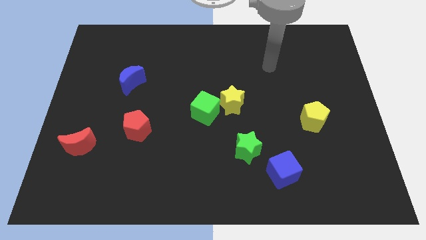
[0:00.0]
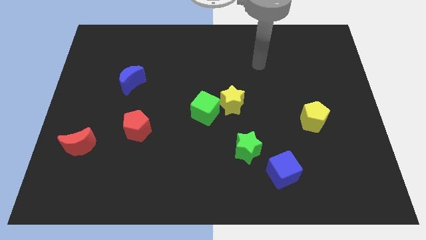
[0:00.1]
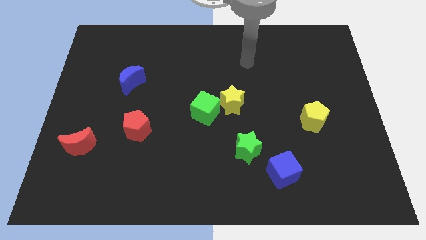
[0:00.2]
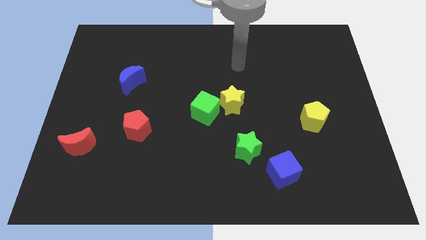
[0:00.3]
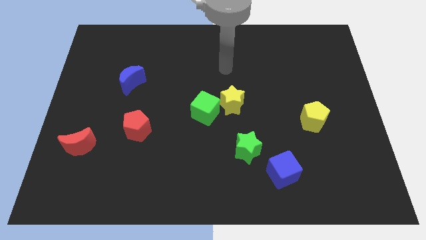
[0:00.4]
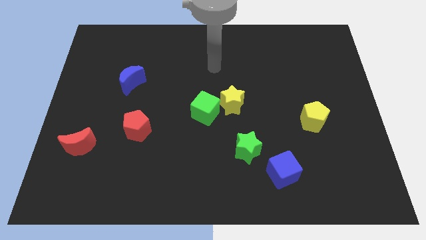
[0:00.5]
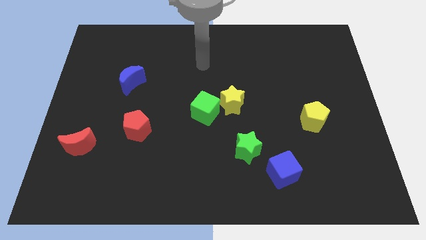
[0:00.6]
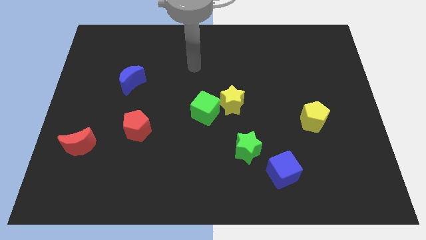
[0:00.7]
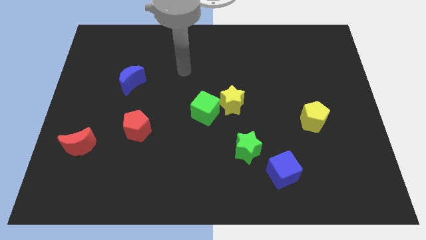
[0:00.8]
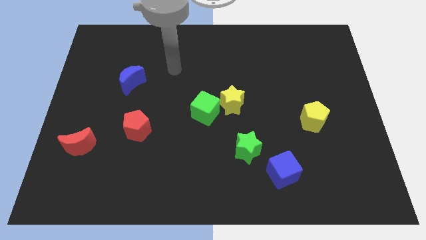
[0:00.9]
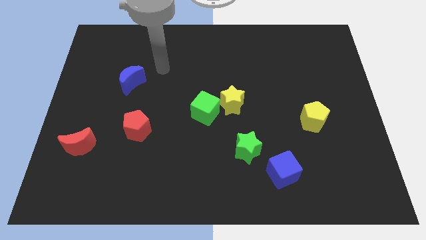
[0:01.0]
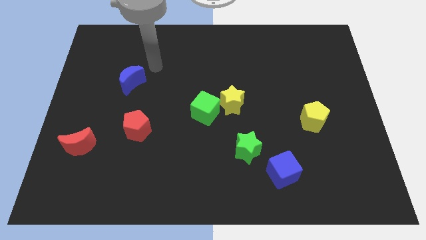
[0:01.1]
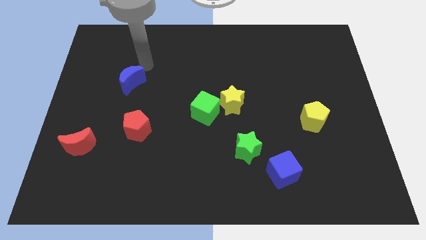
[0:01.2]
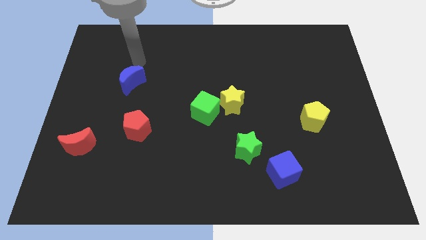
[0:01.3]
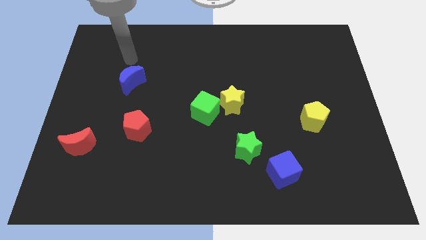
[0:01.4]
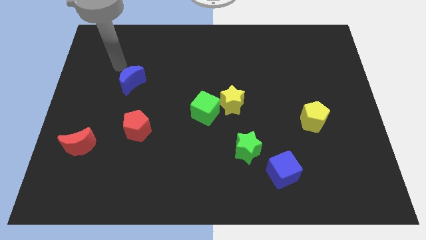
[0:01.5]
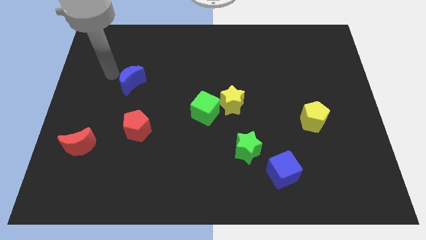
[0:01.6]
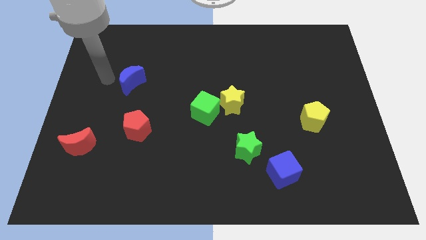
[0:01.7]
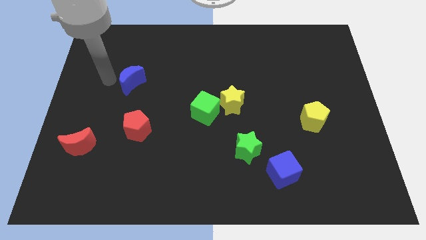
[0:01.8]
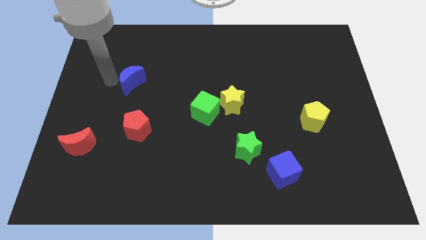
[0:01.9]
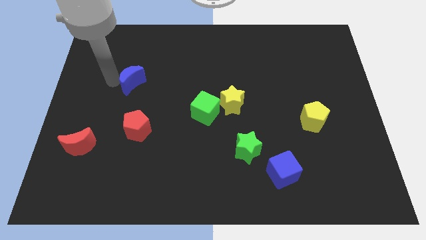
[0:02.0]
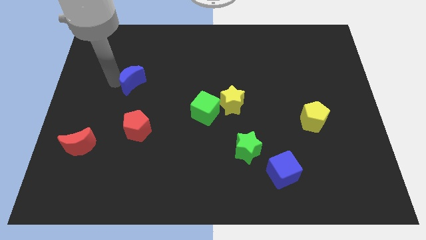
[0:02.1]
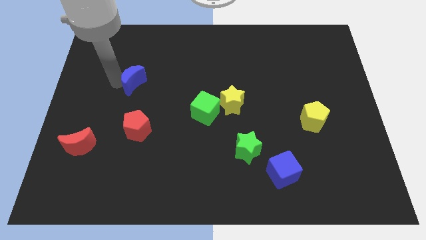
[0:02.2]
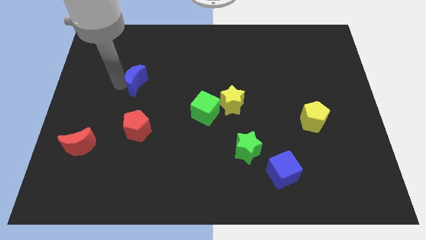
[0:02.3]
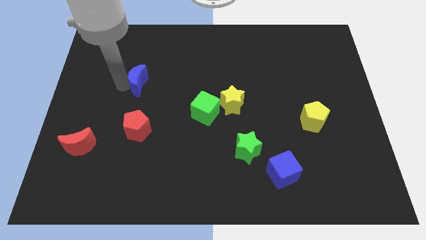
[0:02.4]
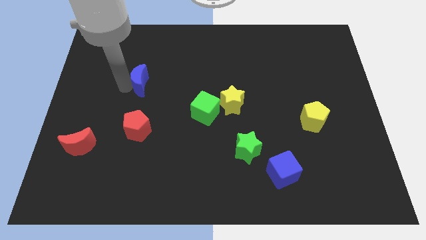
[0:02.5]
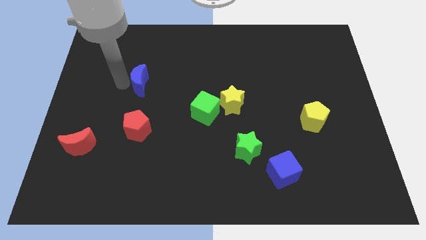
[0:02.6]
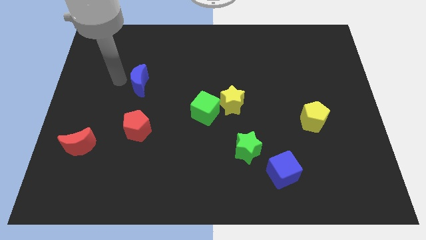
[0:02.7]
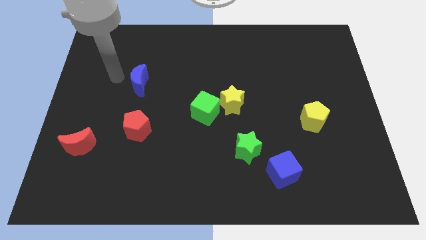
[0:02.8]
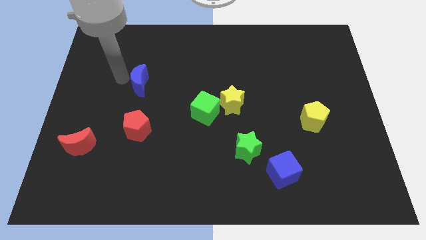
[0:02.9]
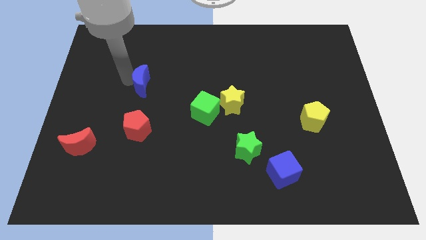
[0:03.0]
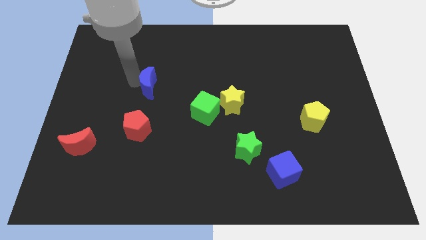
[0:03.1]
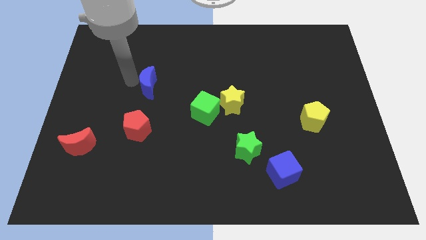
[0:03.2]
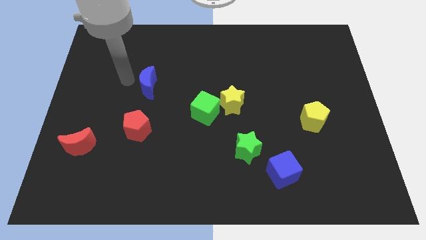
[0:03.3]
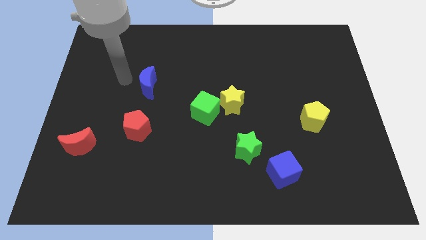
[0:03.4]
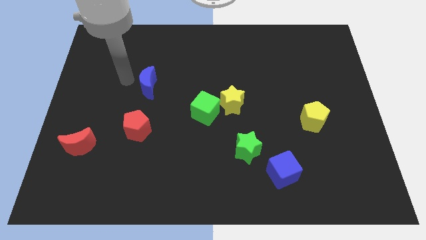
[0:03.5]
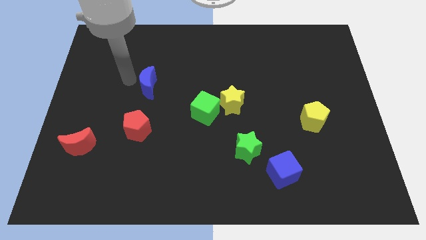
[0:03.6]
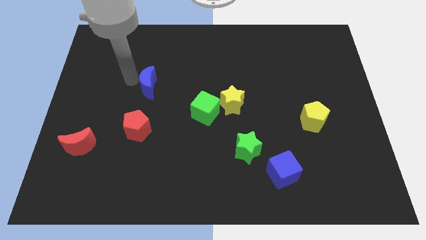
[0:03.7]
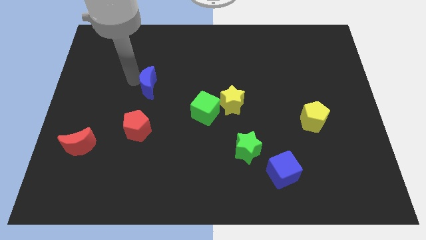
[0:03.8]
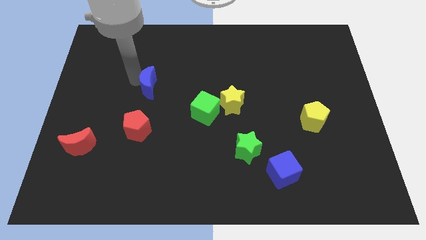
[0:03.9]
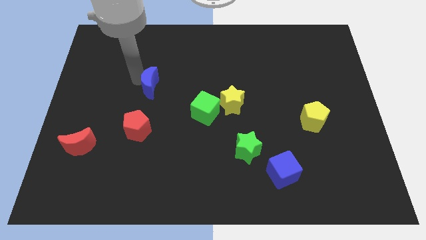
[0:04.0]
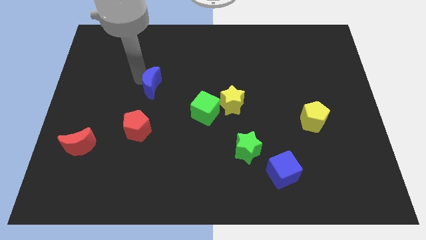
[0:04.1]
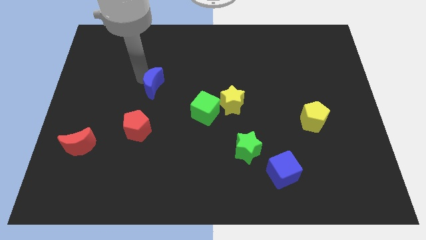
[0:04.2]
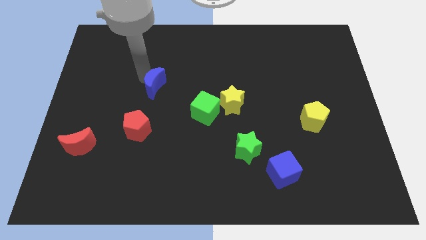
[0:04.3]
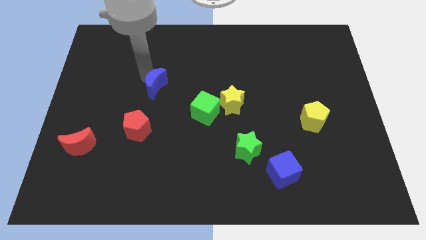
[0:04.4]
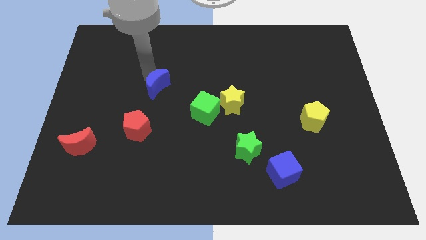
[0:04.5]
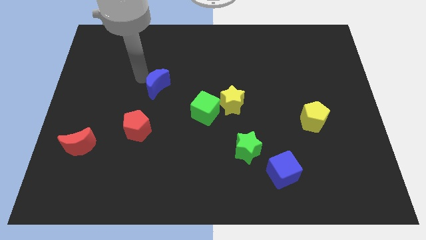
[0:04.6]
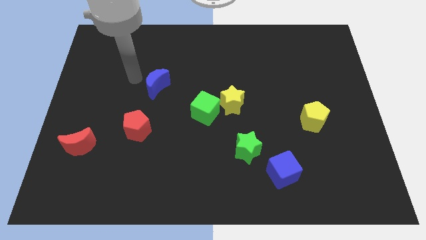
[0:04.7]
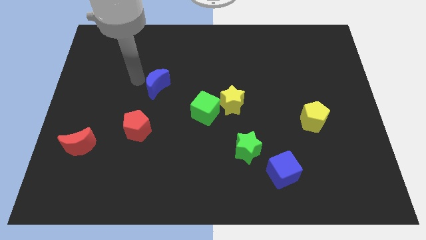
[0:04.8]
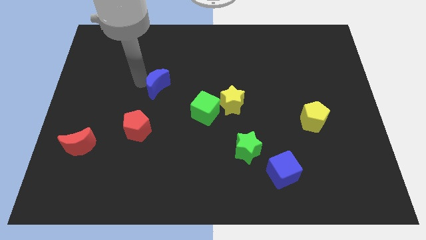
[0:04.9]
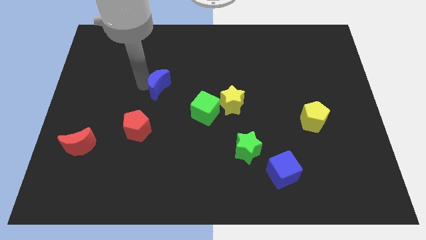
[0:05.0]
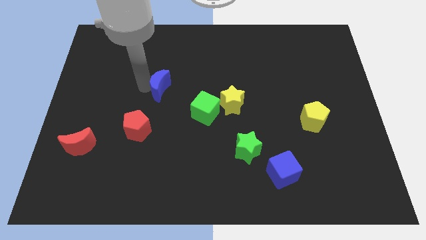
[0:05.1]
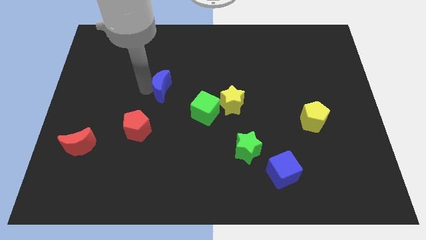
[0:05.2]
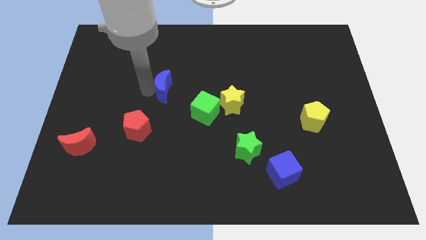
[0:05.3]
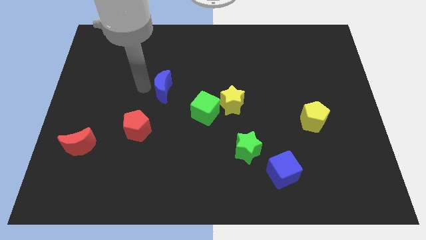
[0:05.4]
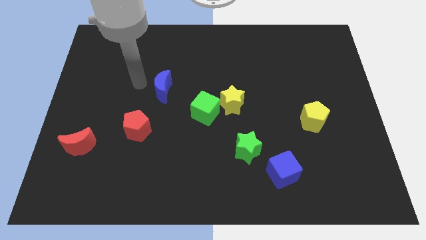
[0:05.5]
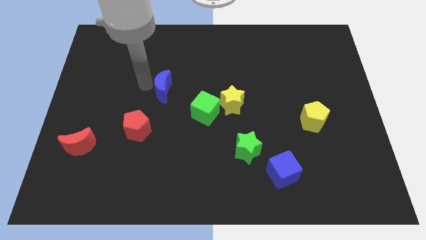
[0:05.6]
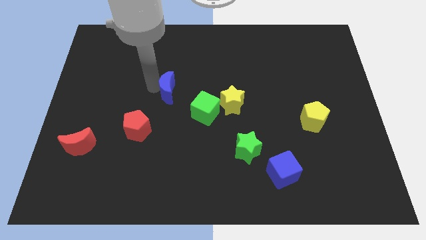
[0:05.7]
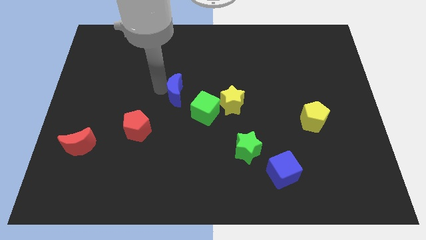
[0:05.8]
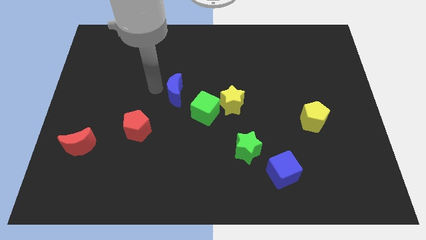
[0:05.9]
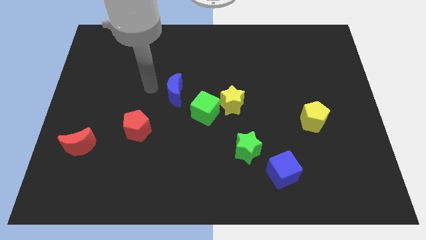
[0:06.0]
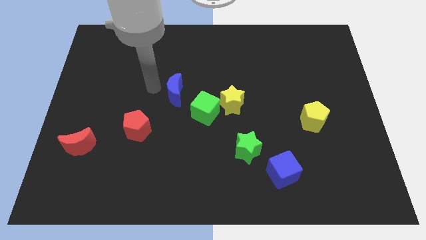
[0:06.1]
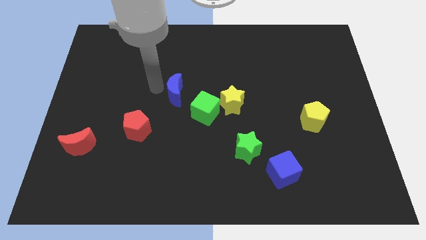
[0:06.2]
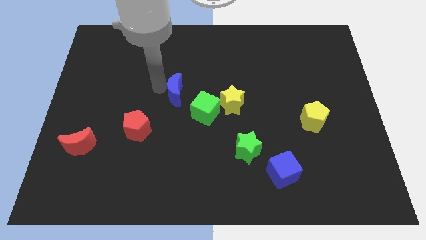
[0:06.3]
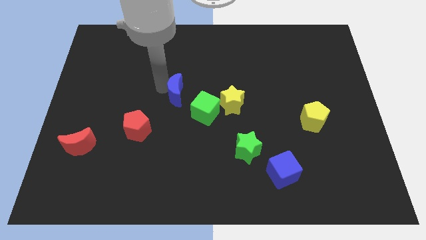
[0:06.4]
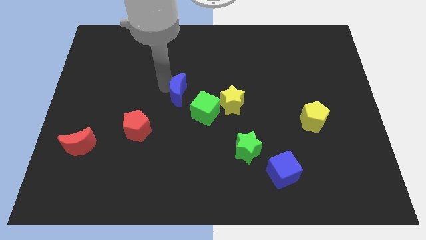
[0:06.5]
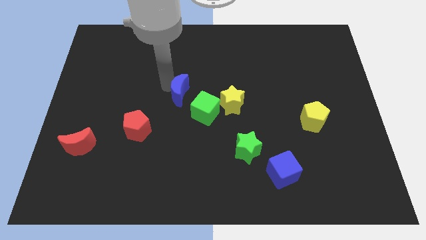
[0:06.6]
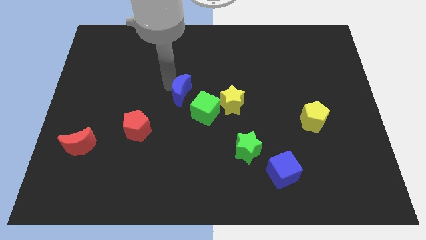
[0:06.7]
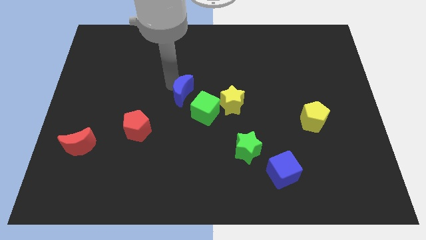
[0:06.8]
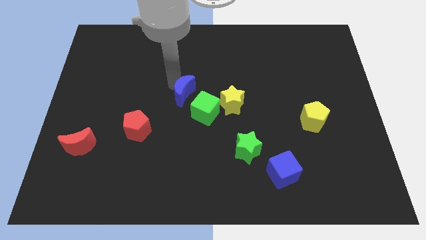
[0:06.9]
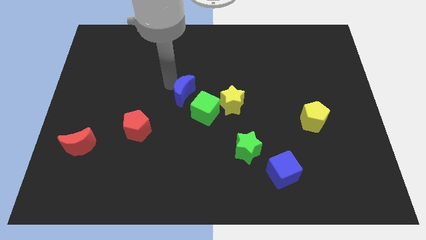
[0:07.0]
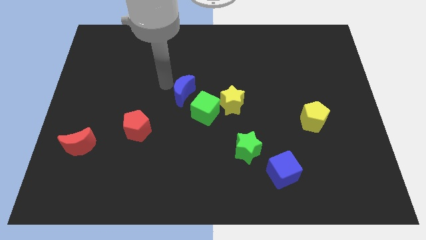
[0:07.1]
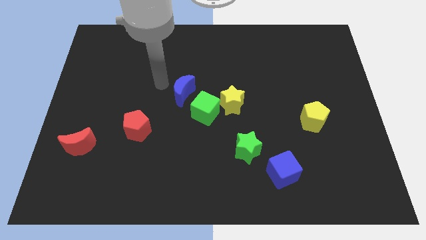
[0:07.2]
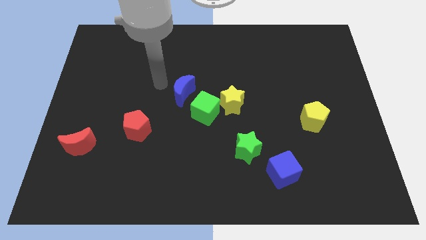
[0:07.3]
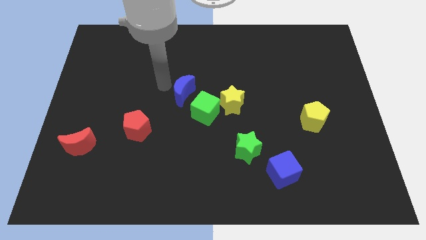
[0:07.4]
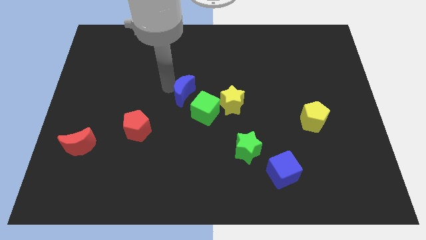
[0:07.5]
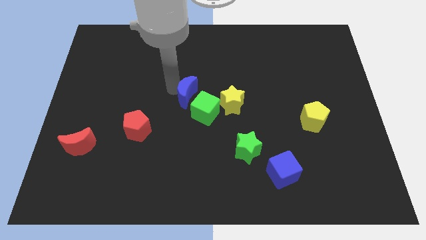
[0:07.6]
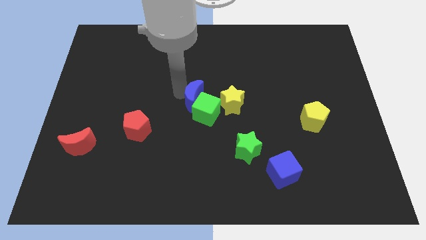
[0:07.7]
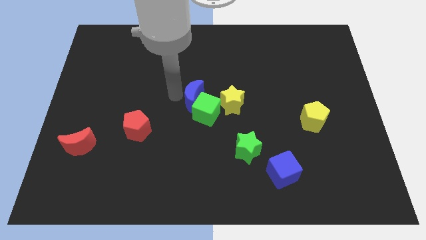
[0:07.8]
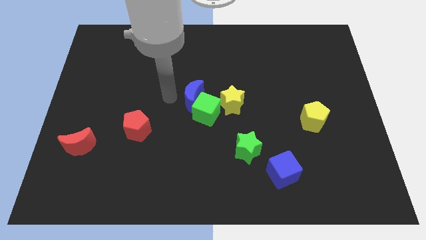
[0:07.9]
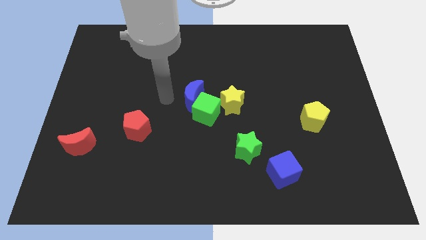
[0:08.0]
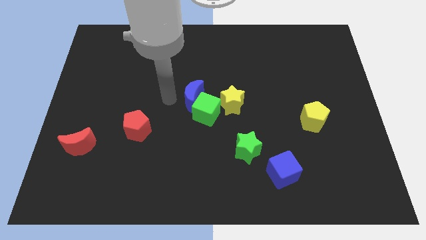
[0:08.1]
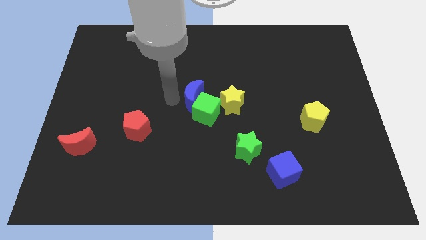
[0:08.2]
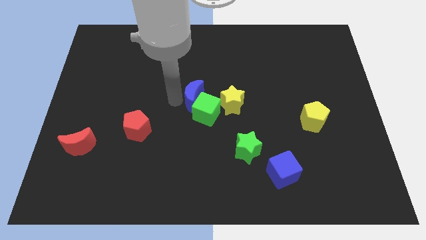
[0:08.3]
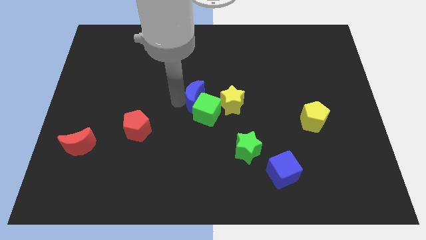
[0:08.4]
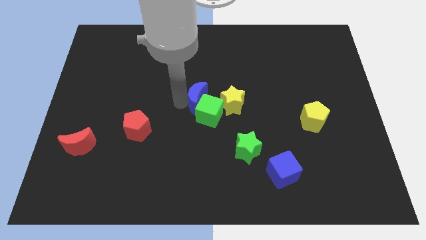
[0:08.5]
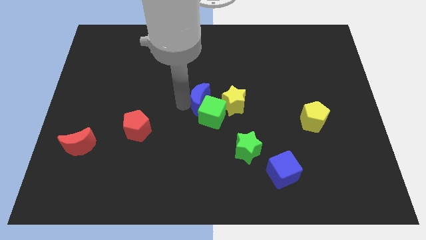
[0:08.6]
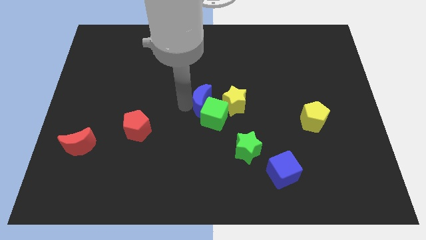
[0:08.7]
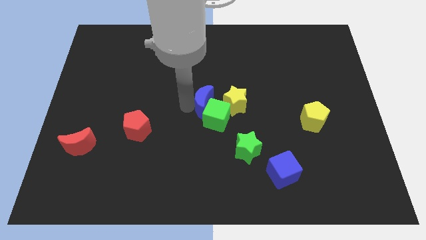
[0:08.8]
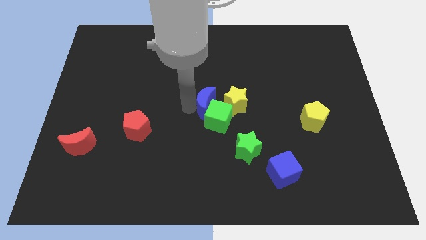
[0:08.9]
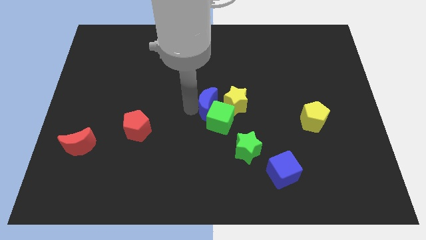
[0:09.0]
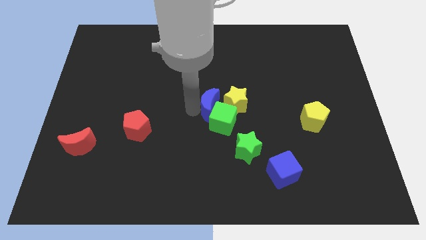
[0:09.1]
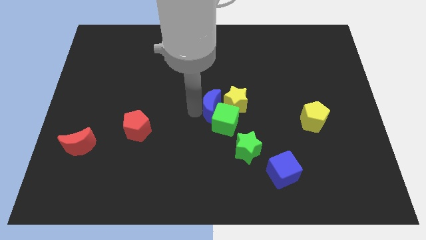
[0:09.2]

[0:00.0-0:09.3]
push the blue moon to the yellow star
